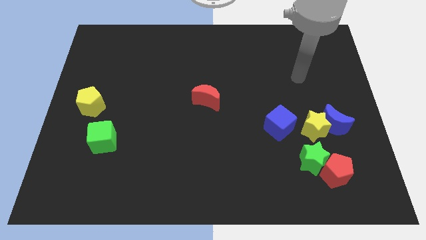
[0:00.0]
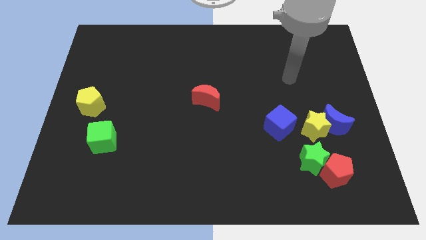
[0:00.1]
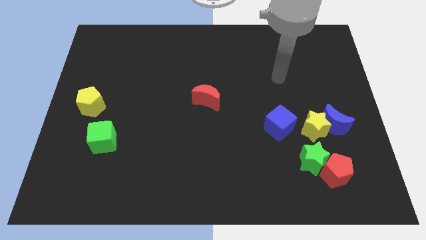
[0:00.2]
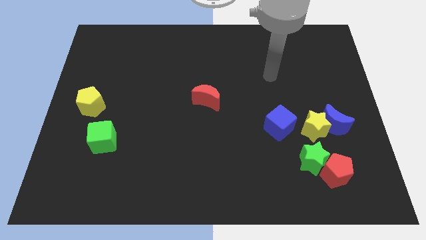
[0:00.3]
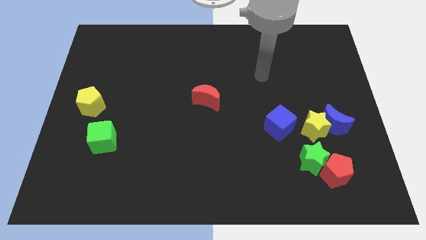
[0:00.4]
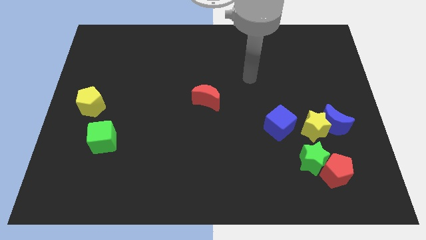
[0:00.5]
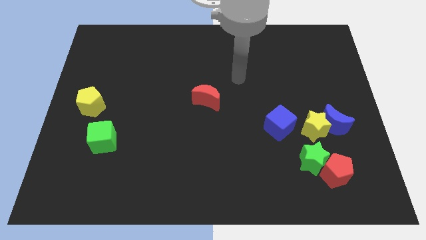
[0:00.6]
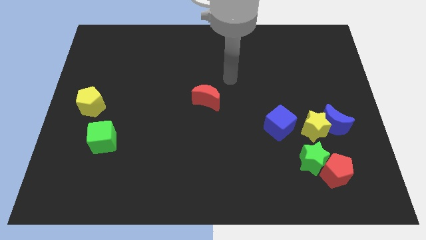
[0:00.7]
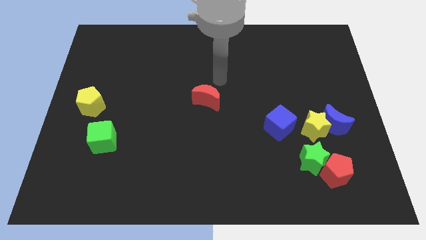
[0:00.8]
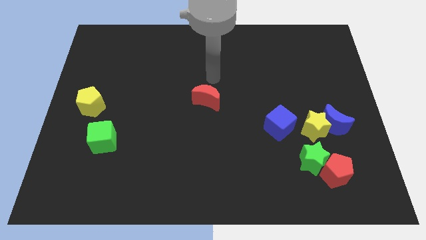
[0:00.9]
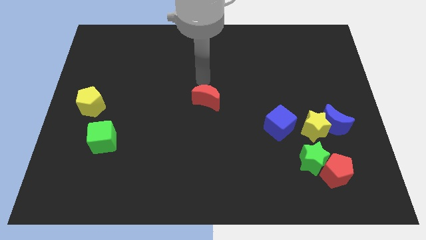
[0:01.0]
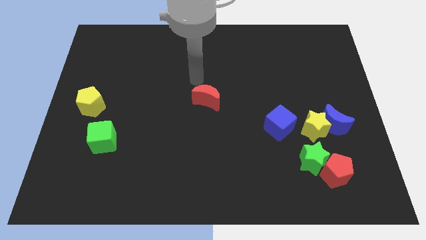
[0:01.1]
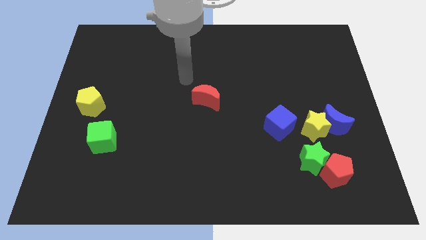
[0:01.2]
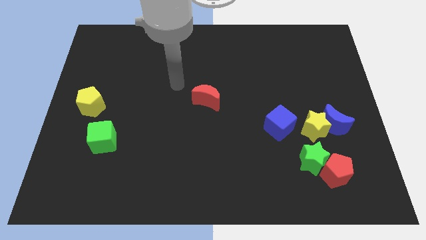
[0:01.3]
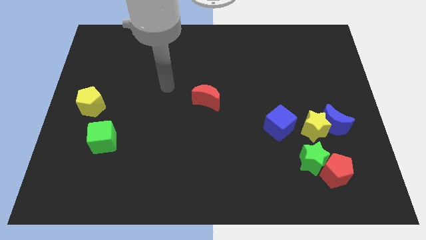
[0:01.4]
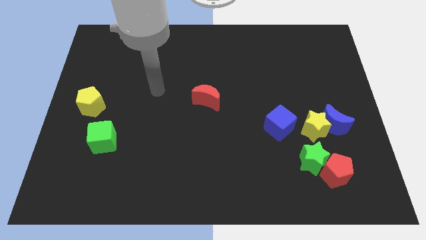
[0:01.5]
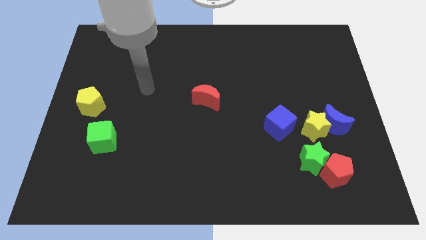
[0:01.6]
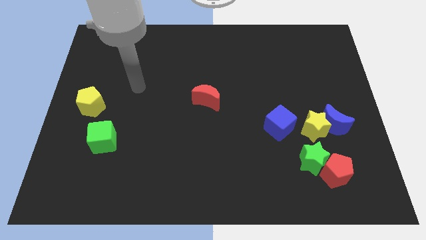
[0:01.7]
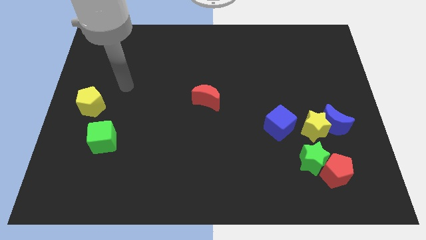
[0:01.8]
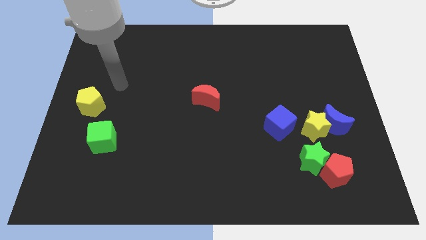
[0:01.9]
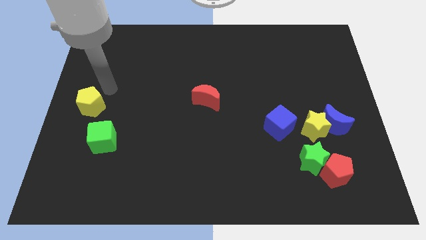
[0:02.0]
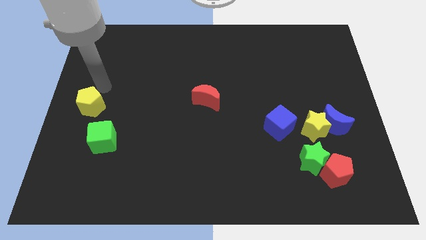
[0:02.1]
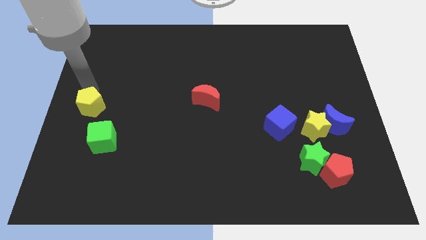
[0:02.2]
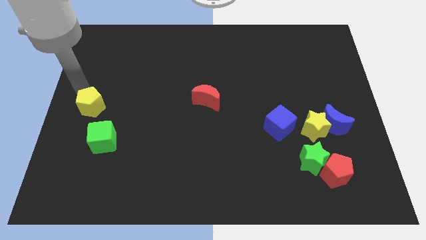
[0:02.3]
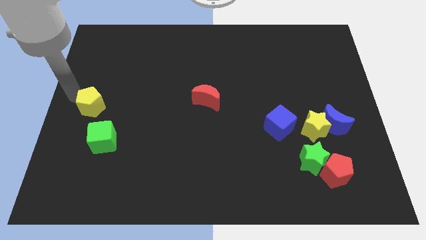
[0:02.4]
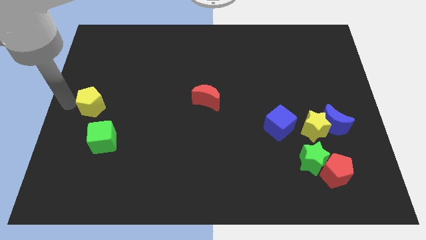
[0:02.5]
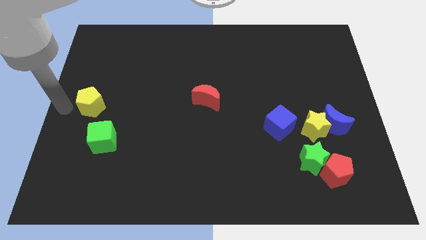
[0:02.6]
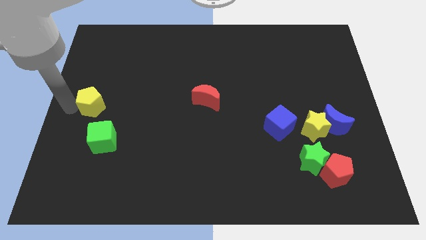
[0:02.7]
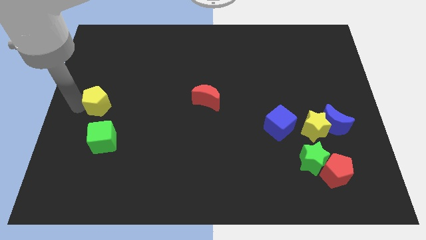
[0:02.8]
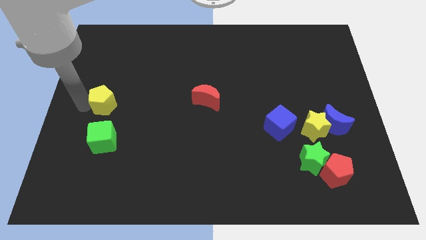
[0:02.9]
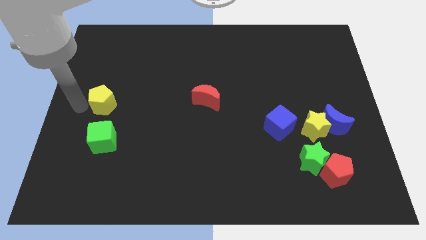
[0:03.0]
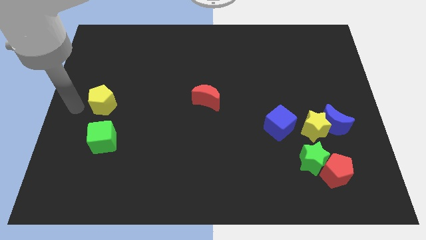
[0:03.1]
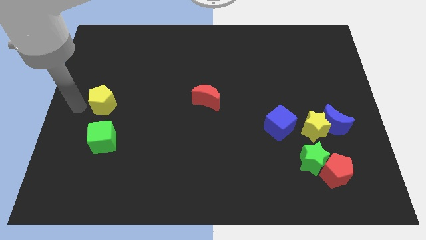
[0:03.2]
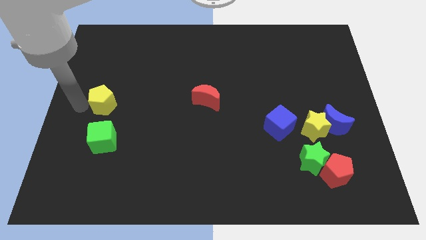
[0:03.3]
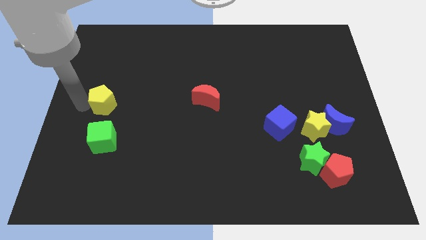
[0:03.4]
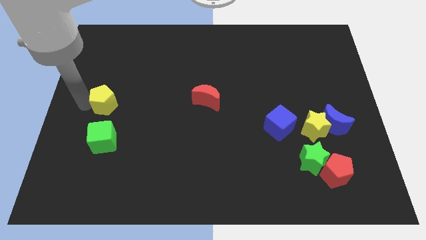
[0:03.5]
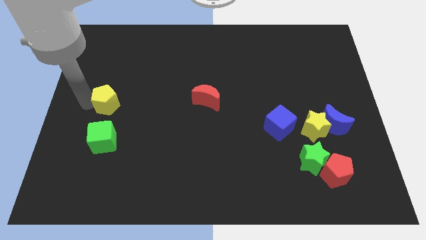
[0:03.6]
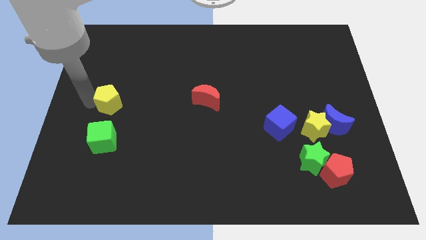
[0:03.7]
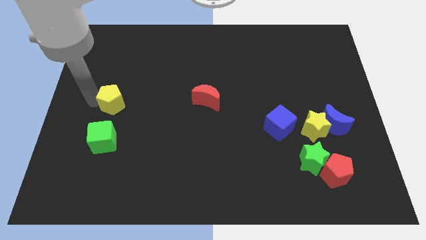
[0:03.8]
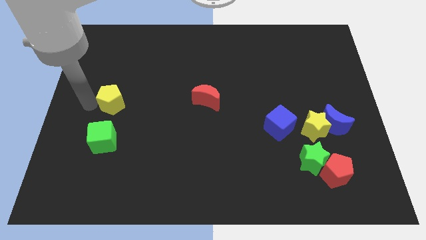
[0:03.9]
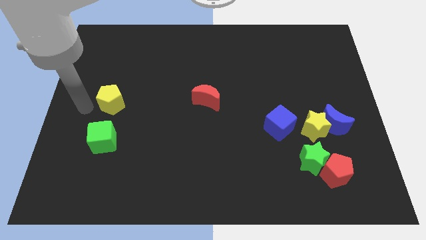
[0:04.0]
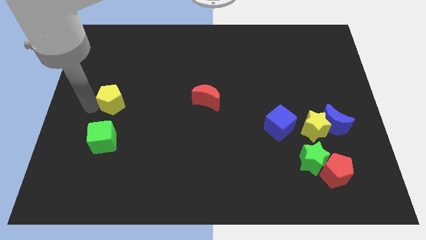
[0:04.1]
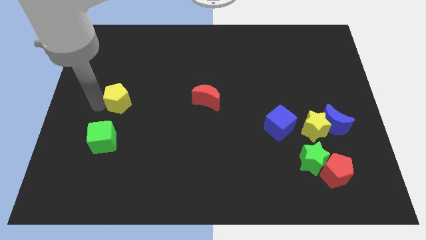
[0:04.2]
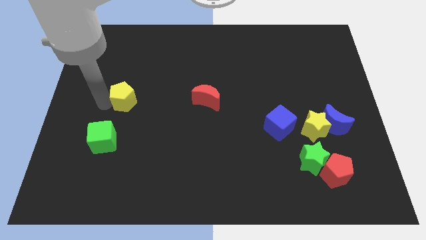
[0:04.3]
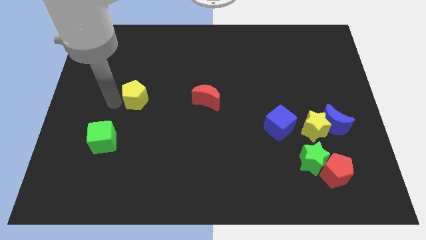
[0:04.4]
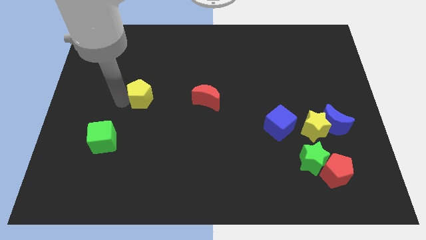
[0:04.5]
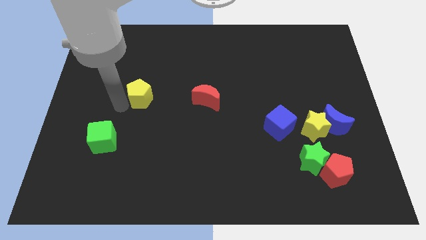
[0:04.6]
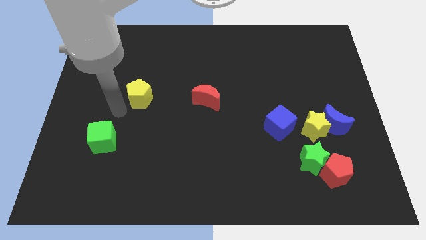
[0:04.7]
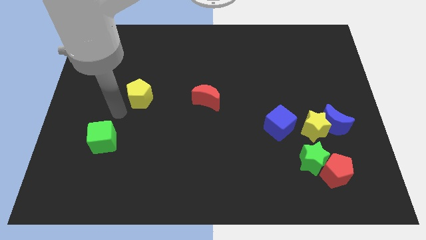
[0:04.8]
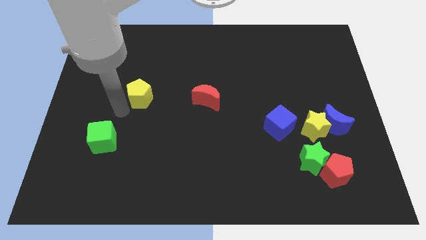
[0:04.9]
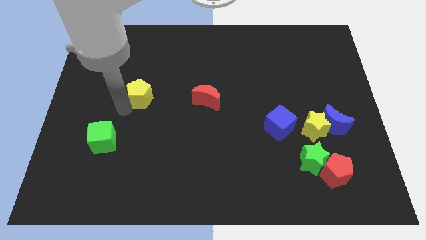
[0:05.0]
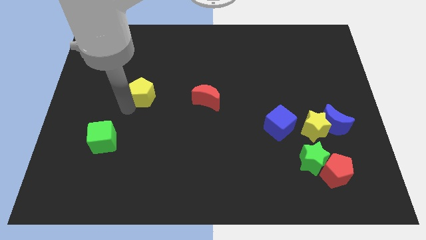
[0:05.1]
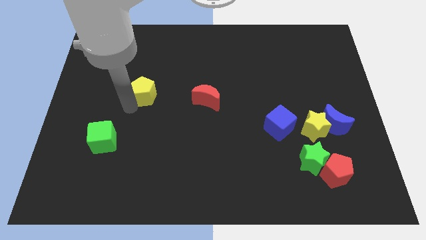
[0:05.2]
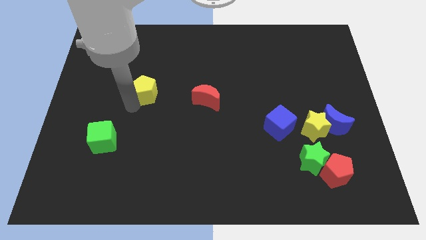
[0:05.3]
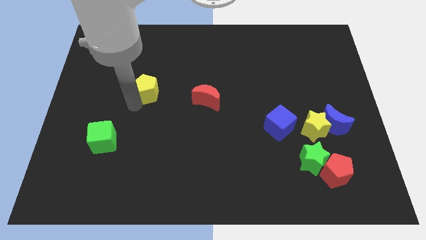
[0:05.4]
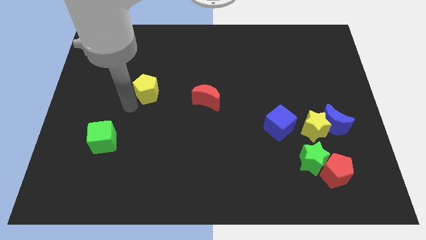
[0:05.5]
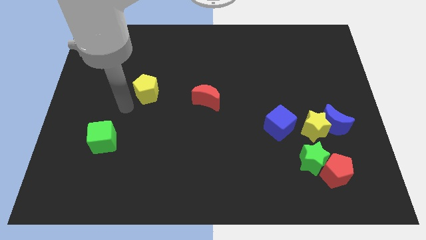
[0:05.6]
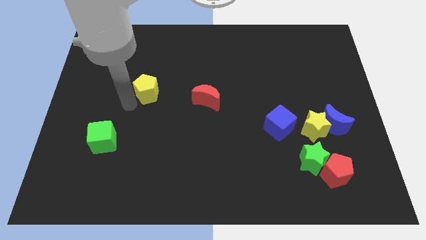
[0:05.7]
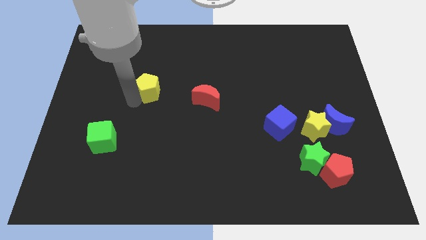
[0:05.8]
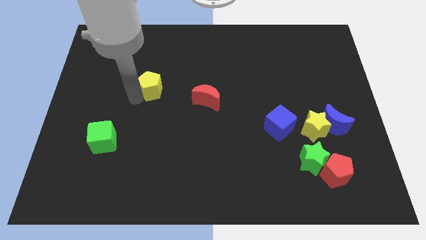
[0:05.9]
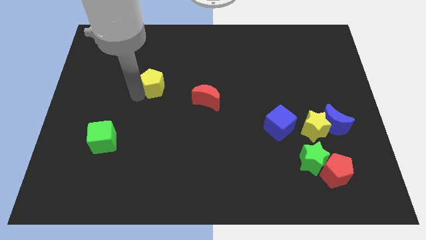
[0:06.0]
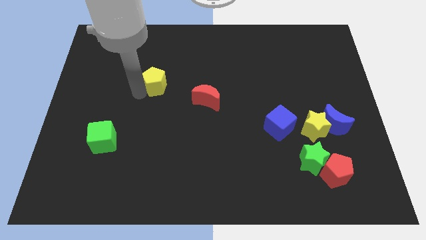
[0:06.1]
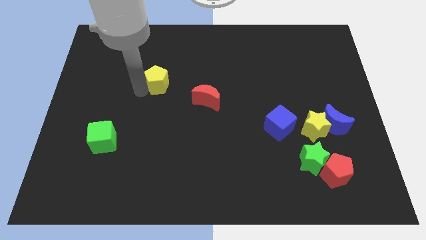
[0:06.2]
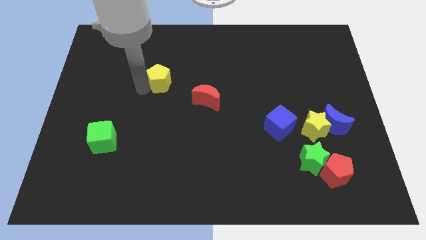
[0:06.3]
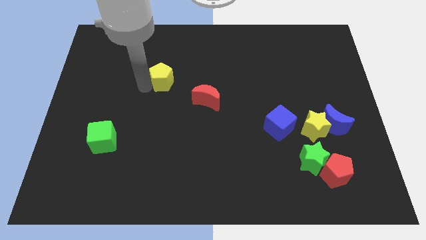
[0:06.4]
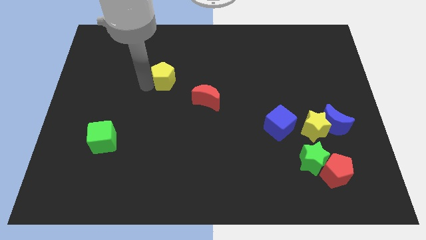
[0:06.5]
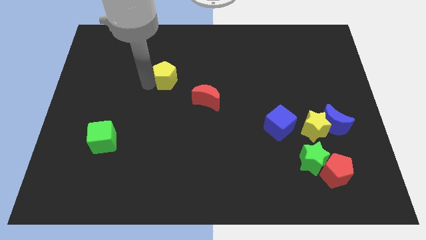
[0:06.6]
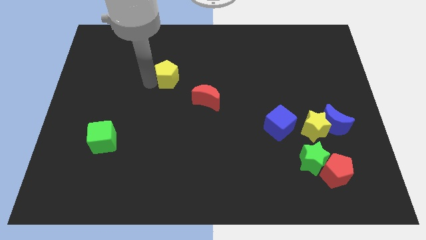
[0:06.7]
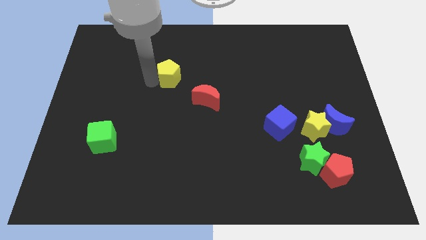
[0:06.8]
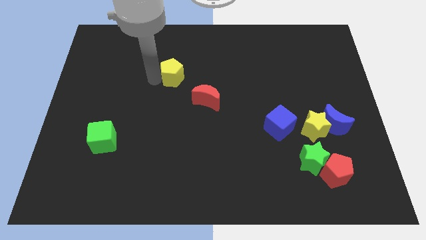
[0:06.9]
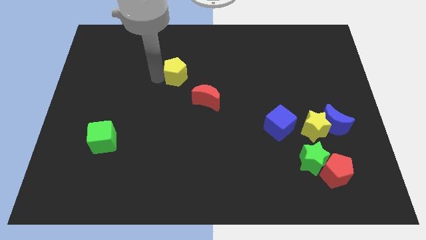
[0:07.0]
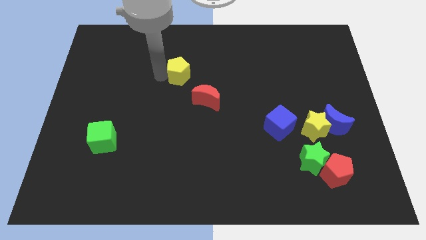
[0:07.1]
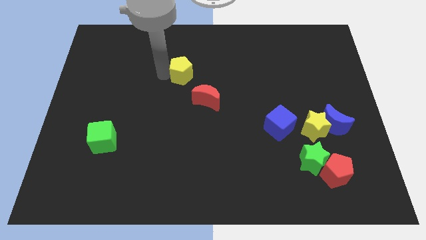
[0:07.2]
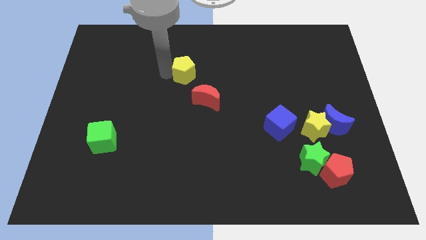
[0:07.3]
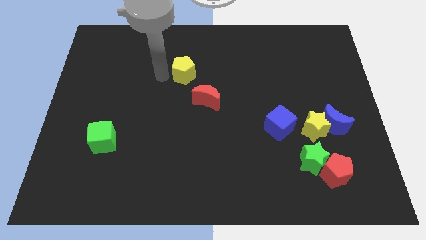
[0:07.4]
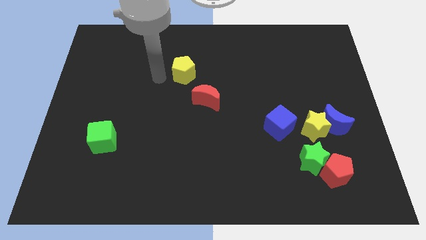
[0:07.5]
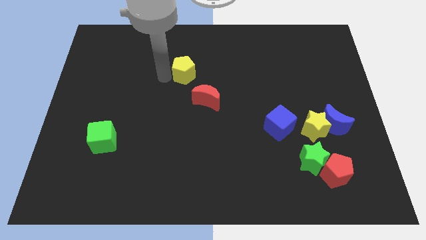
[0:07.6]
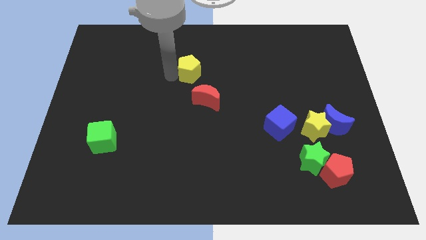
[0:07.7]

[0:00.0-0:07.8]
slide the yellow pentagon to the top side of the red moon
